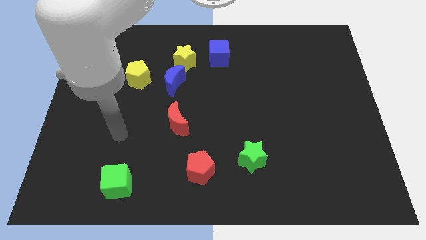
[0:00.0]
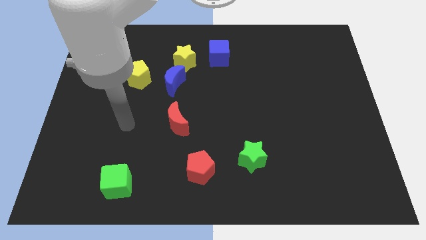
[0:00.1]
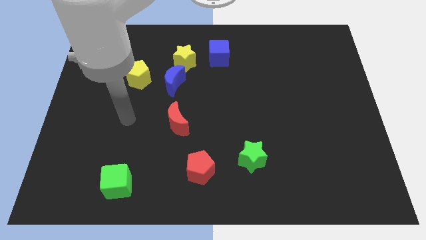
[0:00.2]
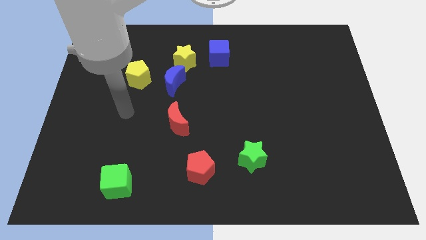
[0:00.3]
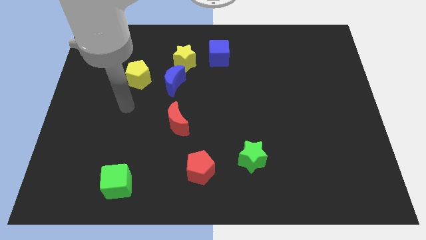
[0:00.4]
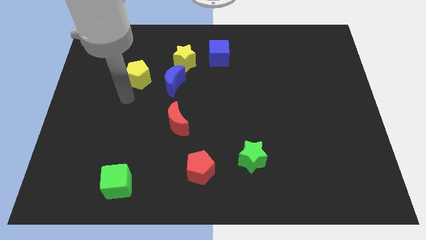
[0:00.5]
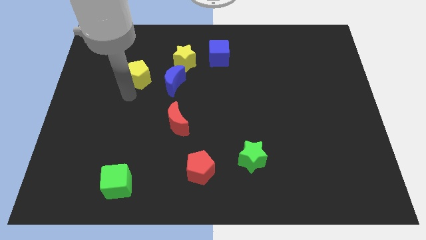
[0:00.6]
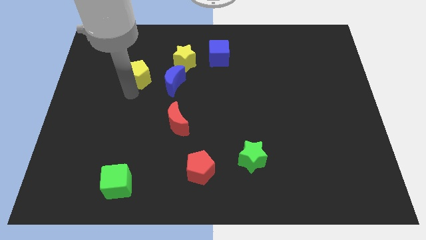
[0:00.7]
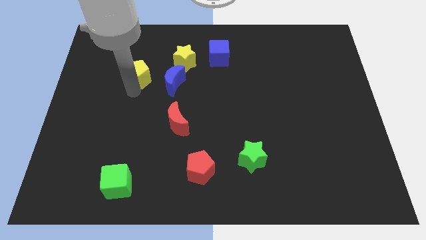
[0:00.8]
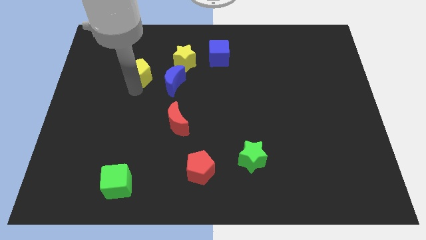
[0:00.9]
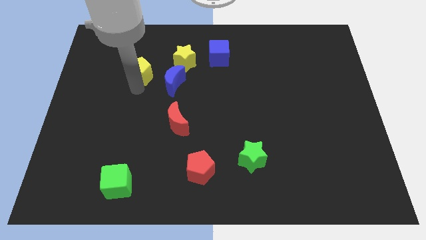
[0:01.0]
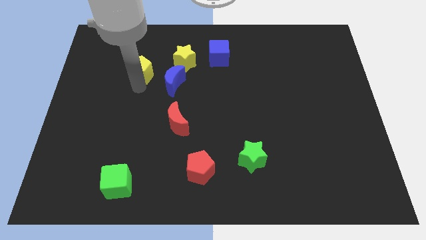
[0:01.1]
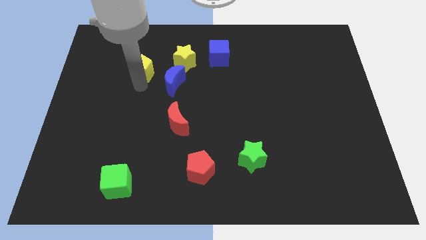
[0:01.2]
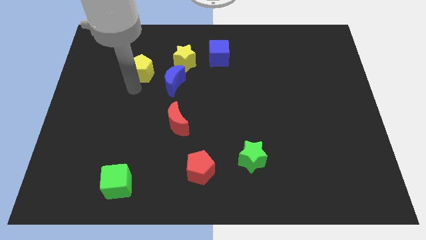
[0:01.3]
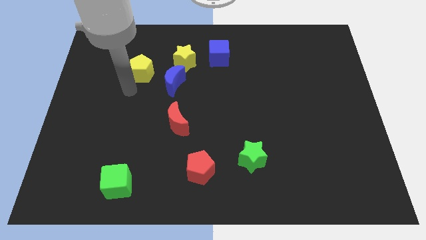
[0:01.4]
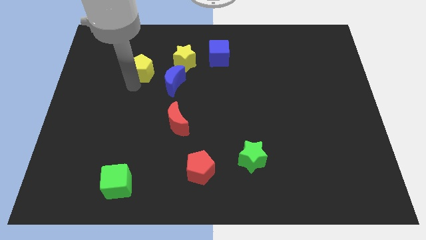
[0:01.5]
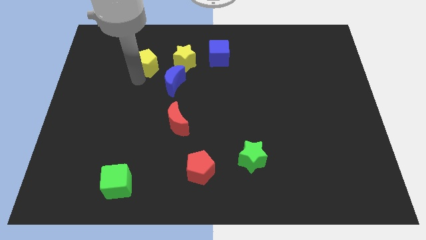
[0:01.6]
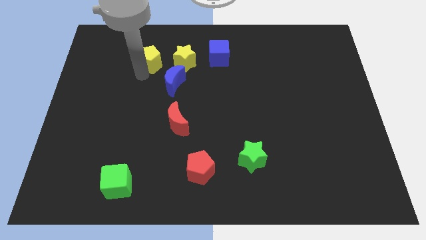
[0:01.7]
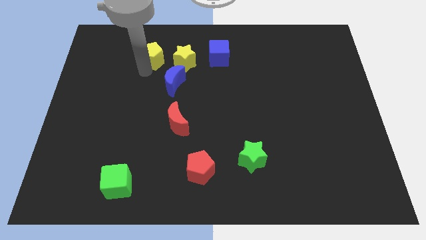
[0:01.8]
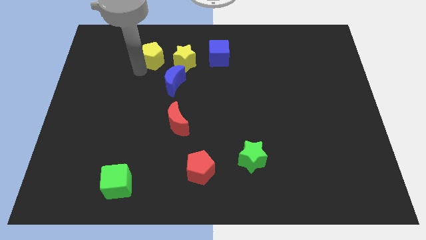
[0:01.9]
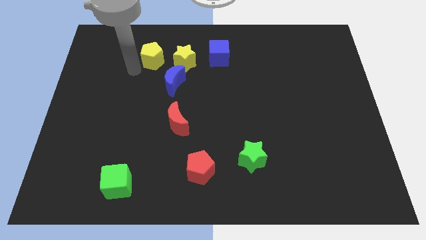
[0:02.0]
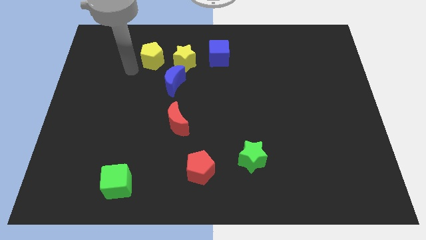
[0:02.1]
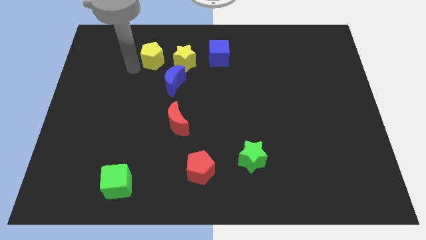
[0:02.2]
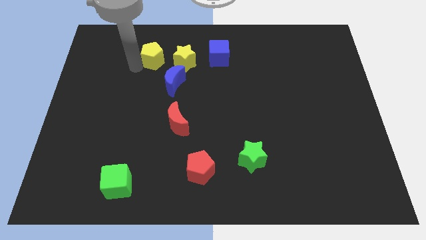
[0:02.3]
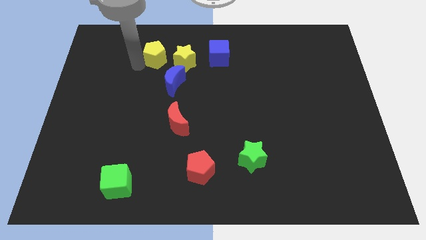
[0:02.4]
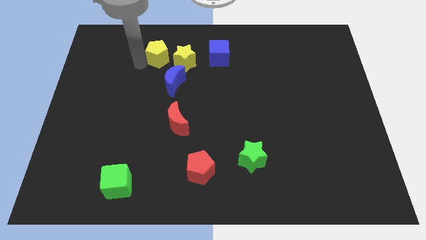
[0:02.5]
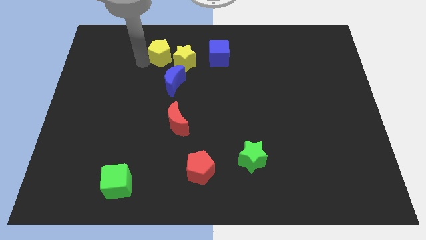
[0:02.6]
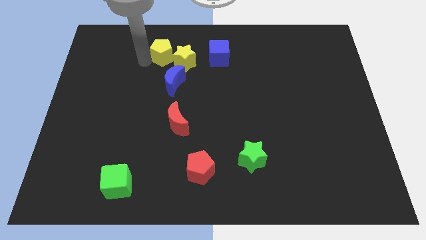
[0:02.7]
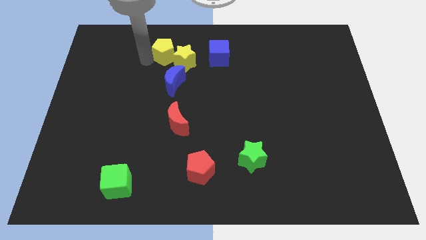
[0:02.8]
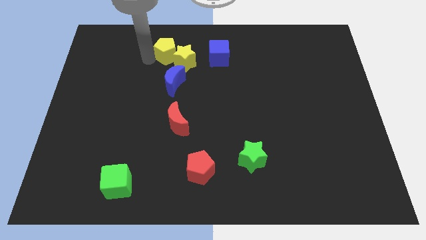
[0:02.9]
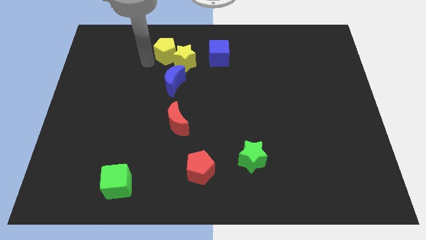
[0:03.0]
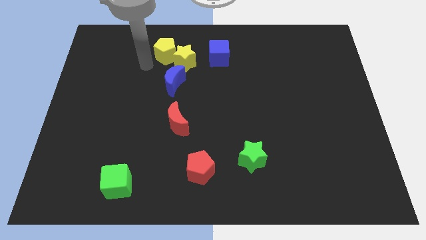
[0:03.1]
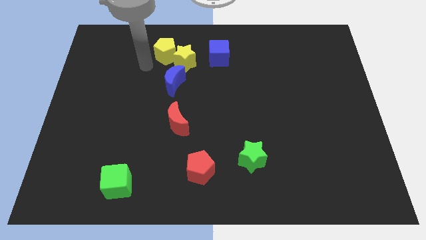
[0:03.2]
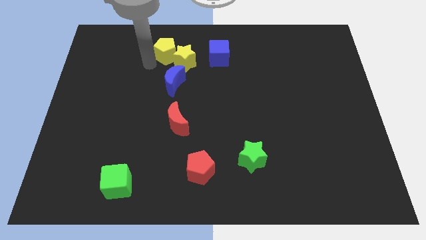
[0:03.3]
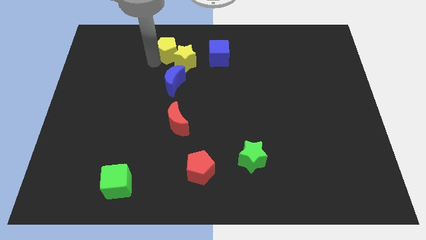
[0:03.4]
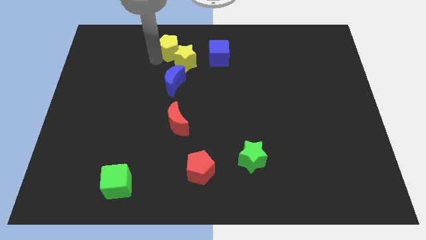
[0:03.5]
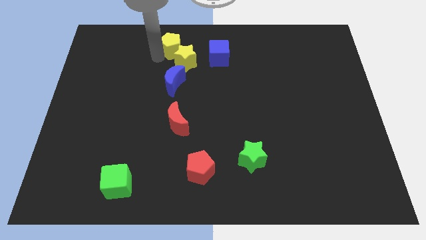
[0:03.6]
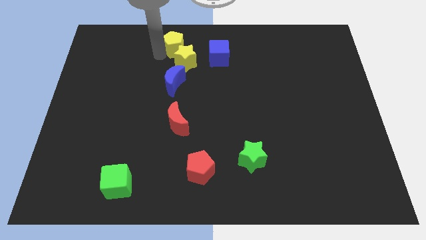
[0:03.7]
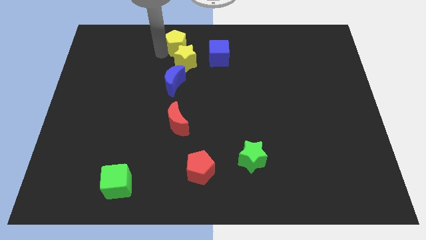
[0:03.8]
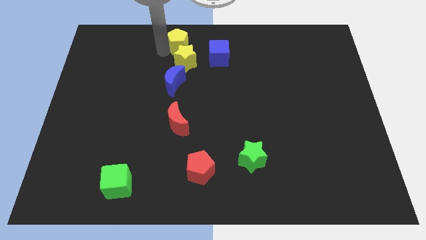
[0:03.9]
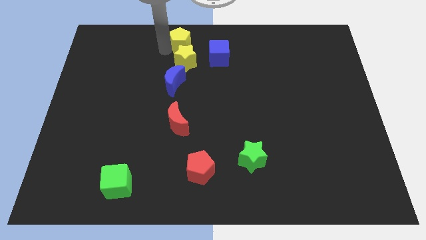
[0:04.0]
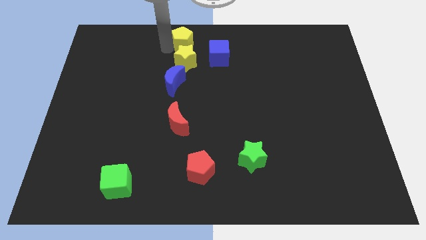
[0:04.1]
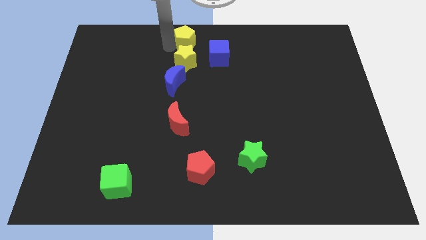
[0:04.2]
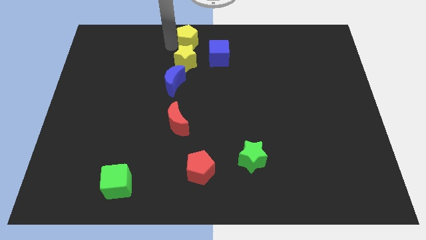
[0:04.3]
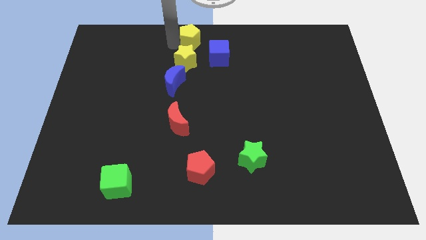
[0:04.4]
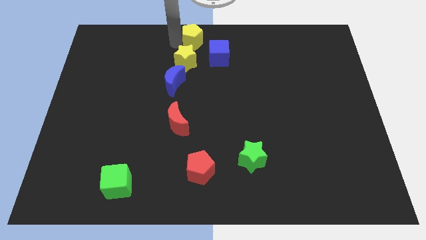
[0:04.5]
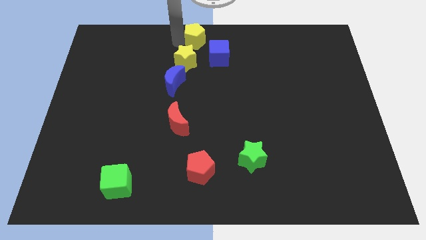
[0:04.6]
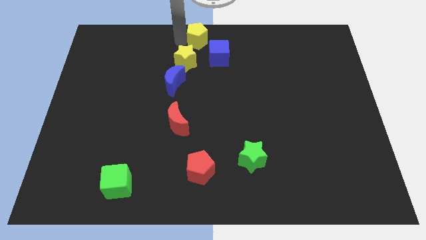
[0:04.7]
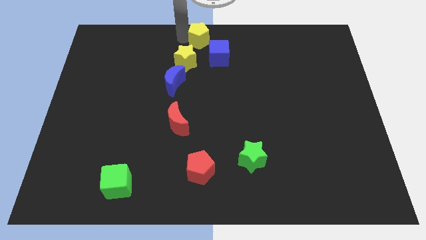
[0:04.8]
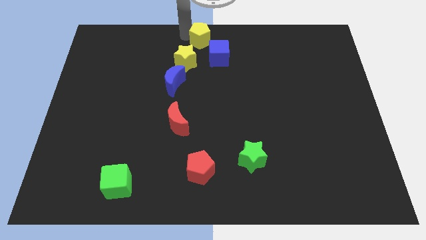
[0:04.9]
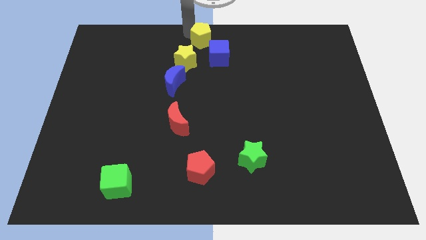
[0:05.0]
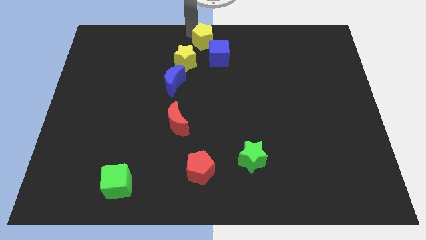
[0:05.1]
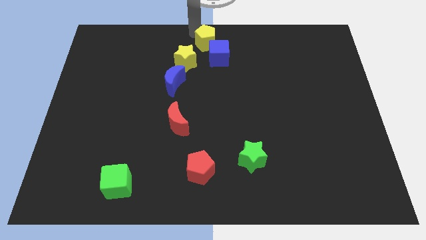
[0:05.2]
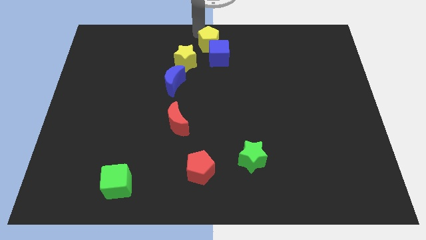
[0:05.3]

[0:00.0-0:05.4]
slide the yellow pentagon next to the blue cube

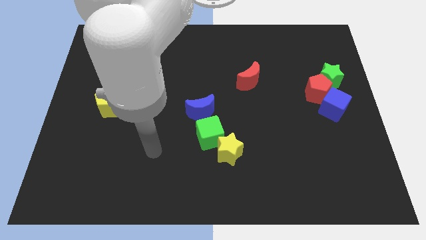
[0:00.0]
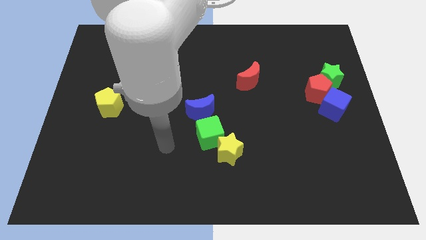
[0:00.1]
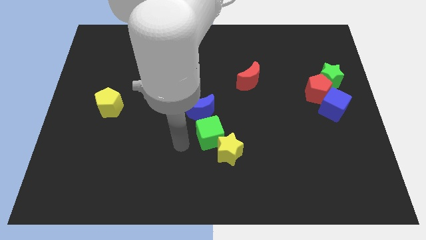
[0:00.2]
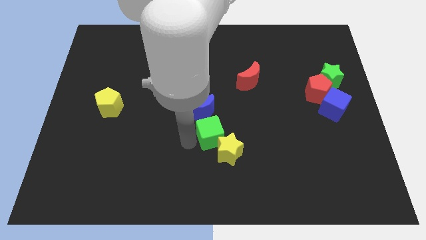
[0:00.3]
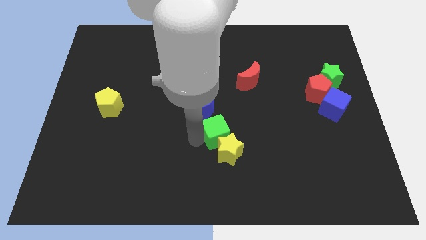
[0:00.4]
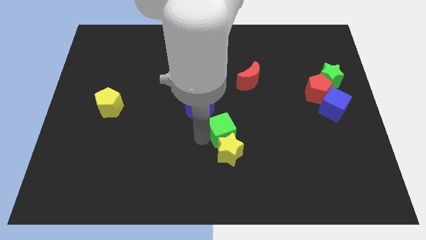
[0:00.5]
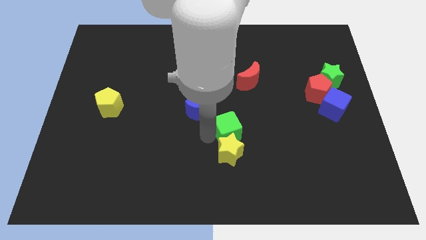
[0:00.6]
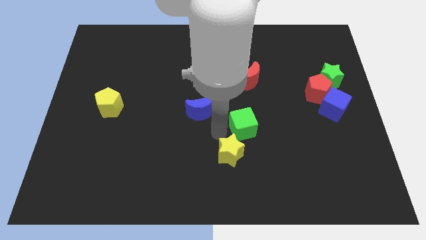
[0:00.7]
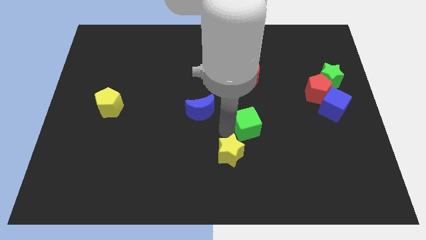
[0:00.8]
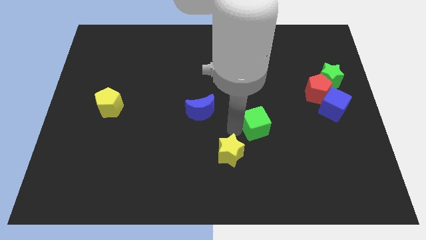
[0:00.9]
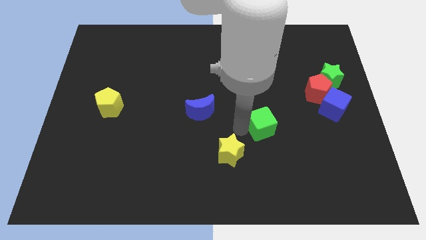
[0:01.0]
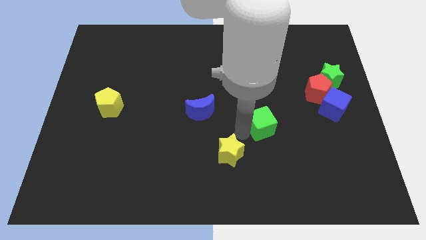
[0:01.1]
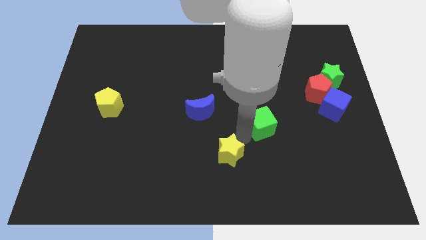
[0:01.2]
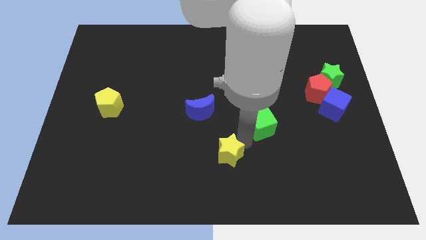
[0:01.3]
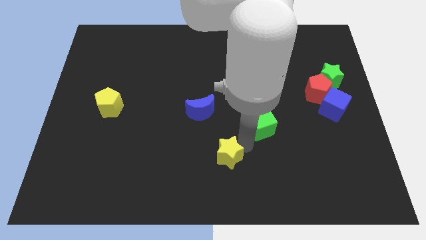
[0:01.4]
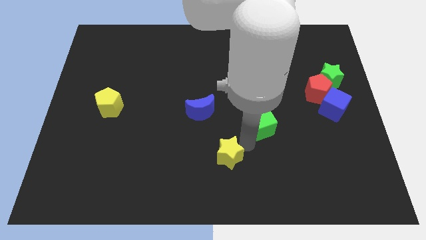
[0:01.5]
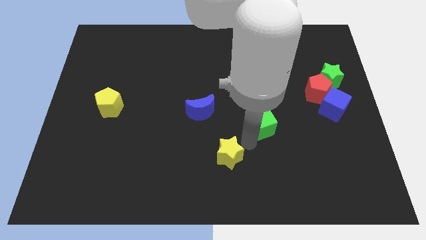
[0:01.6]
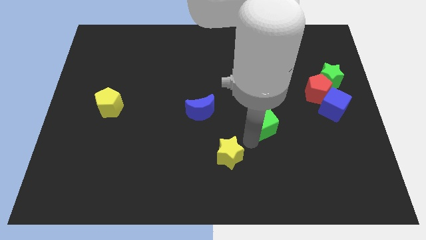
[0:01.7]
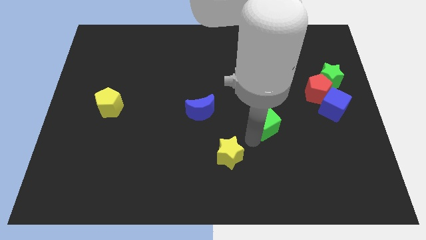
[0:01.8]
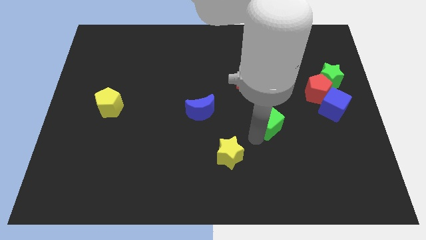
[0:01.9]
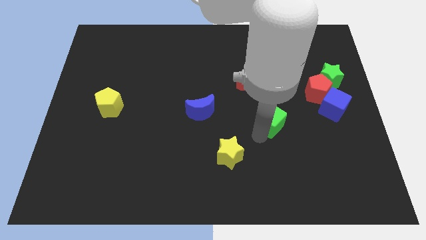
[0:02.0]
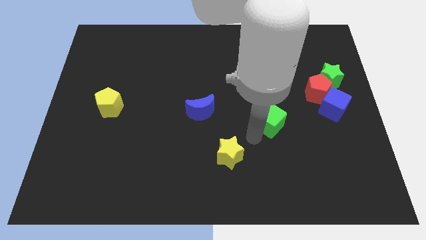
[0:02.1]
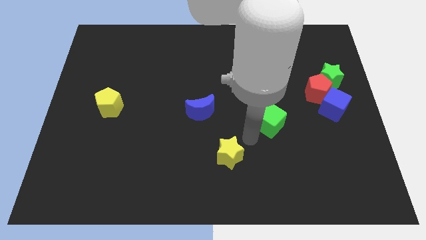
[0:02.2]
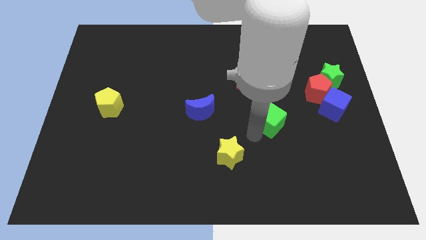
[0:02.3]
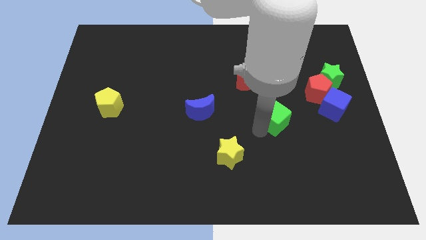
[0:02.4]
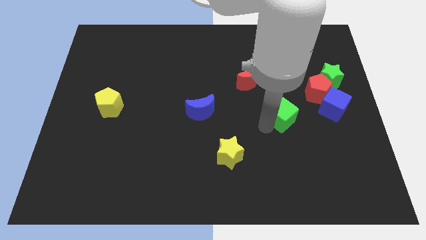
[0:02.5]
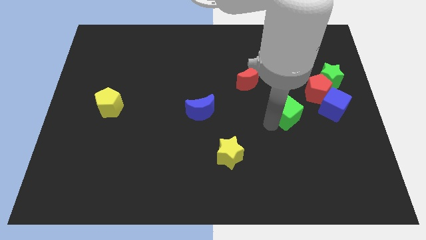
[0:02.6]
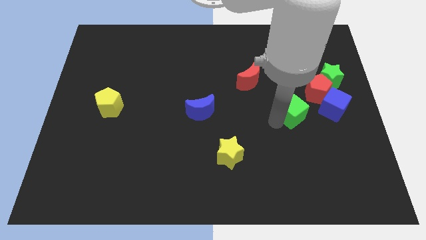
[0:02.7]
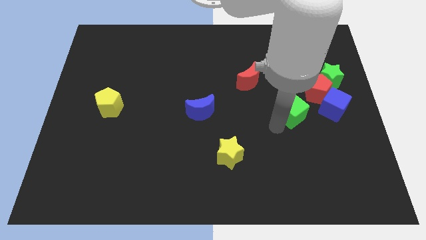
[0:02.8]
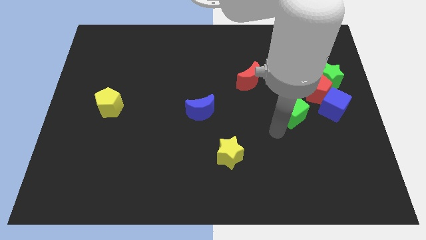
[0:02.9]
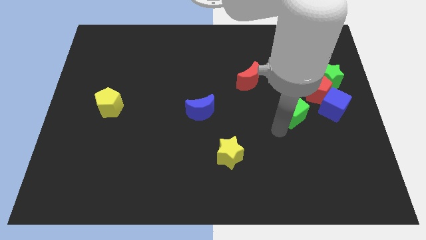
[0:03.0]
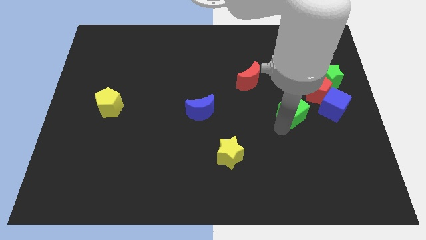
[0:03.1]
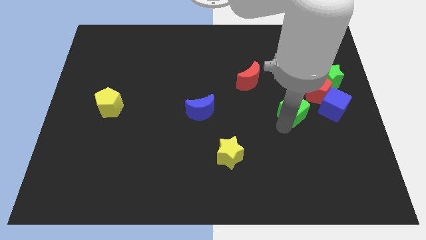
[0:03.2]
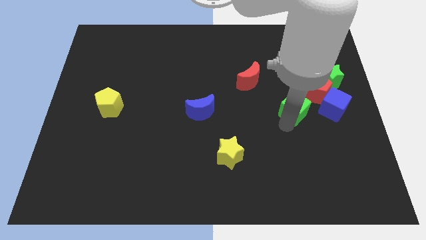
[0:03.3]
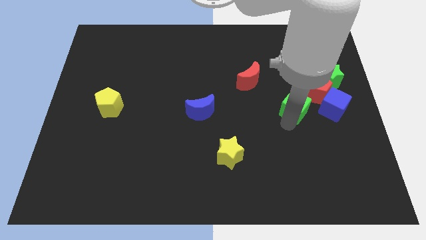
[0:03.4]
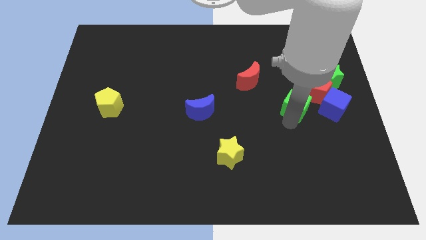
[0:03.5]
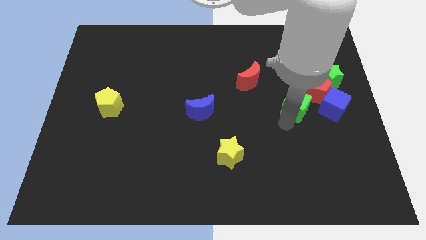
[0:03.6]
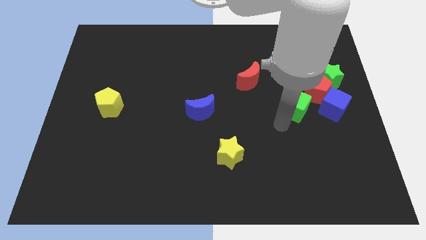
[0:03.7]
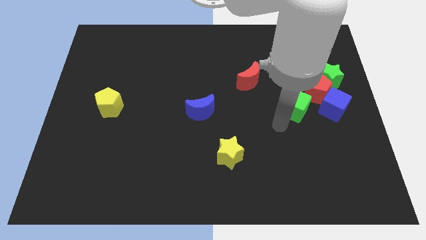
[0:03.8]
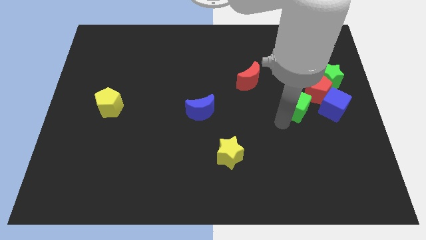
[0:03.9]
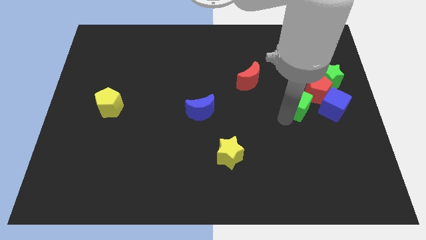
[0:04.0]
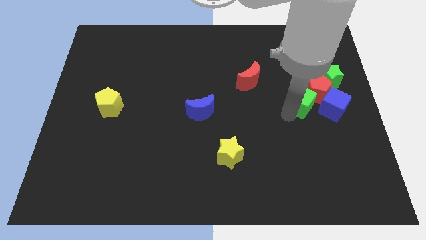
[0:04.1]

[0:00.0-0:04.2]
move the green cube next to the red pentagon
